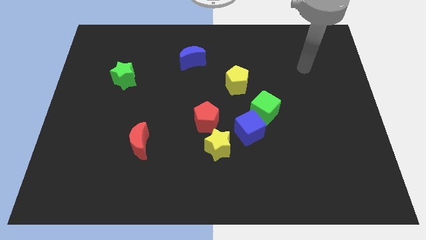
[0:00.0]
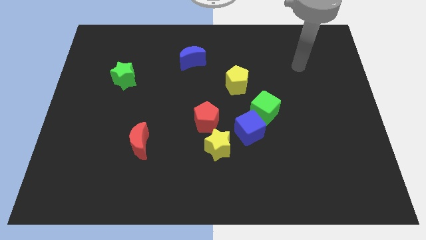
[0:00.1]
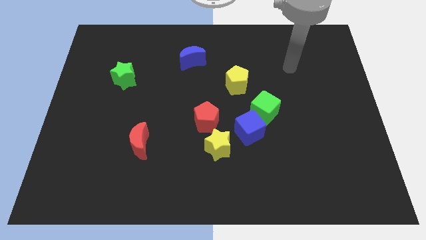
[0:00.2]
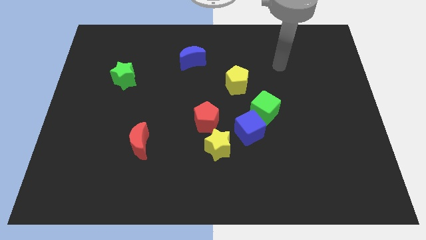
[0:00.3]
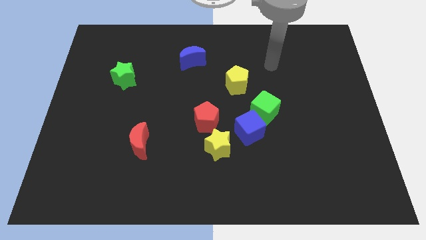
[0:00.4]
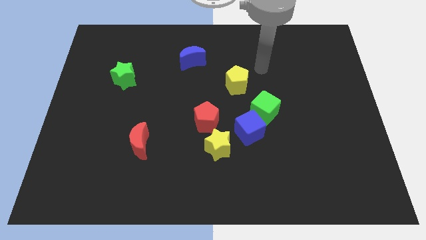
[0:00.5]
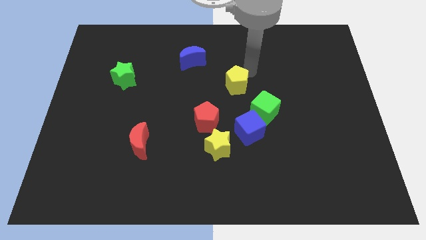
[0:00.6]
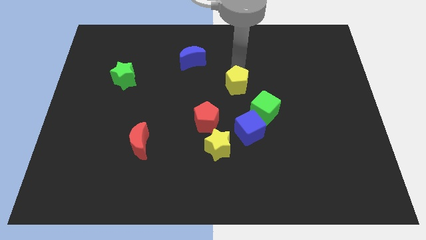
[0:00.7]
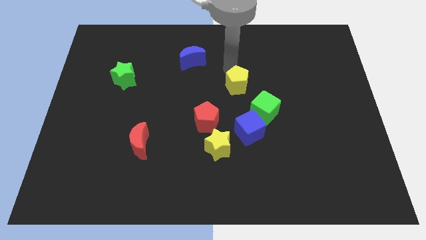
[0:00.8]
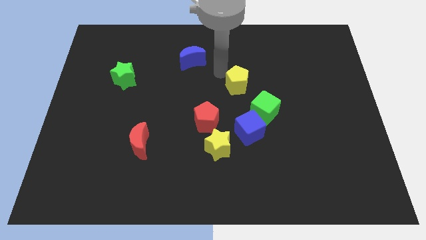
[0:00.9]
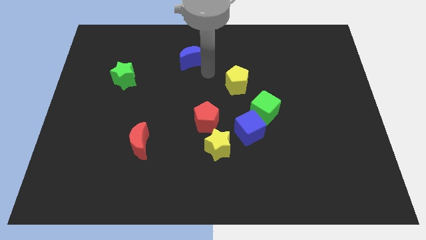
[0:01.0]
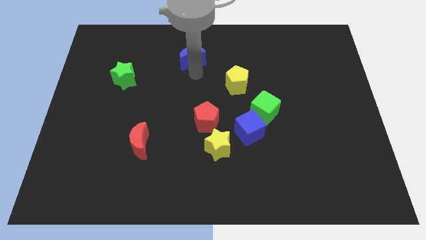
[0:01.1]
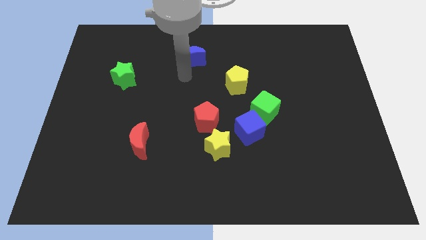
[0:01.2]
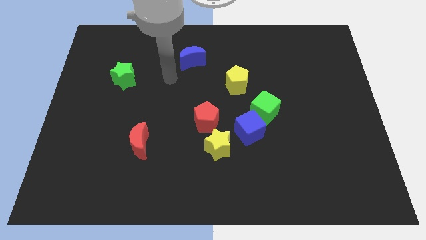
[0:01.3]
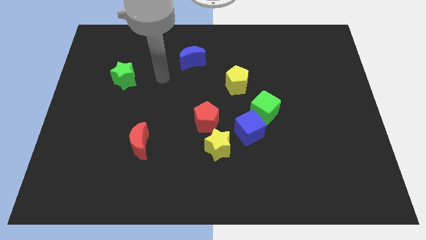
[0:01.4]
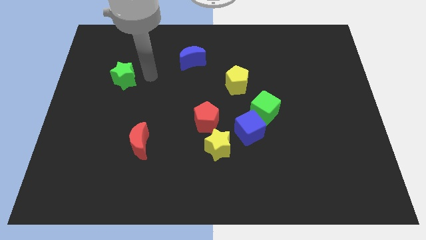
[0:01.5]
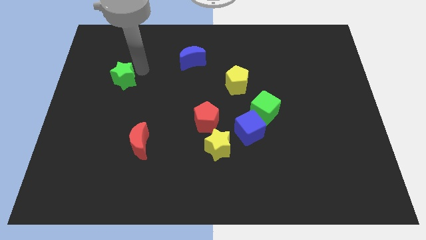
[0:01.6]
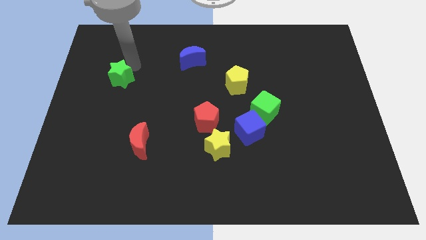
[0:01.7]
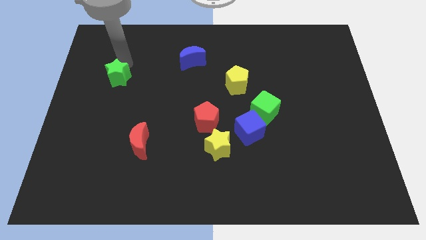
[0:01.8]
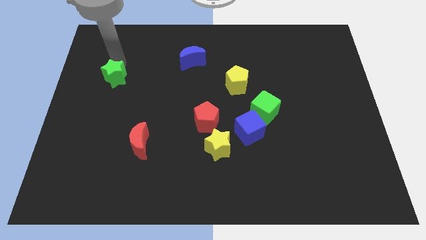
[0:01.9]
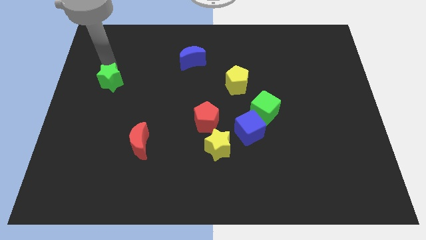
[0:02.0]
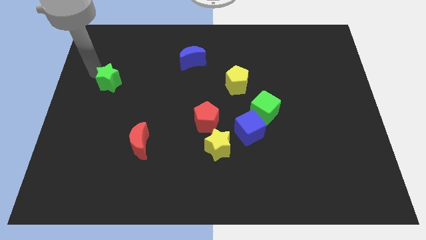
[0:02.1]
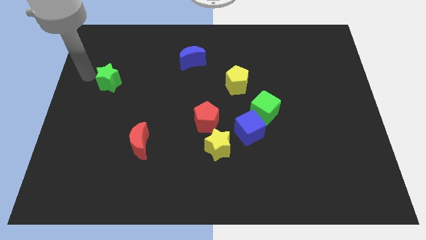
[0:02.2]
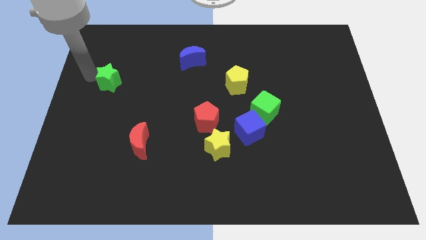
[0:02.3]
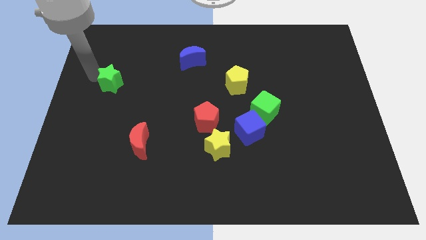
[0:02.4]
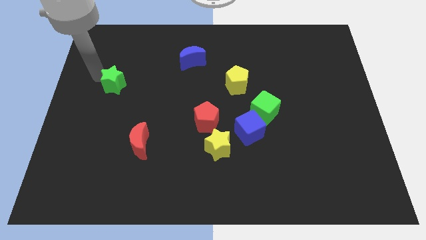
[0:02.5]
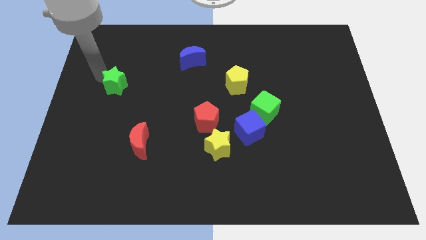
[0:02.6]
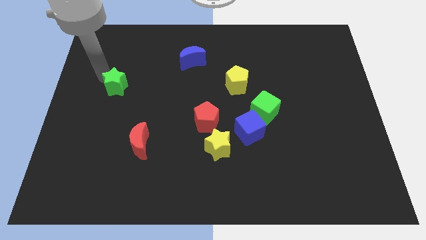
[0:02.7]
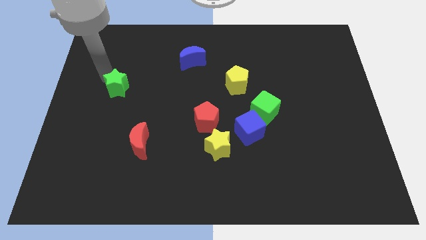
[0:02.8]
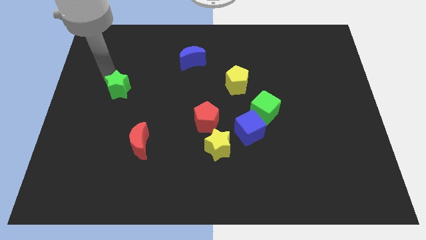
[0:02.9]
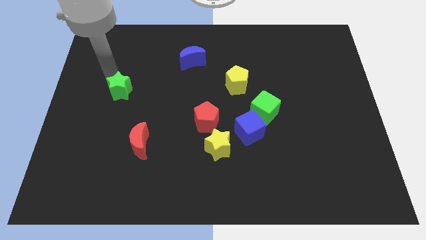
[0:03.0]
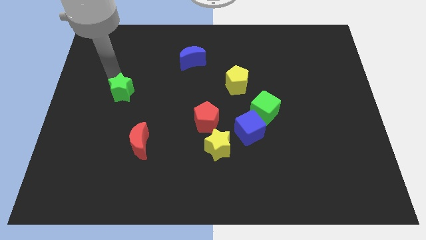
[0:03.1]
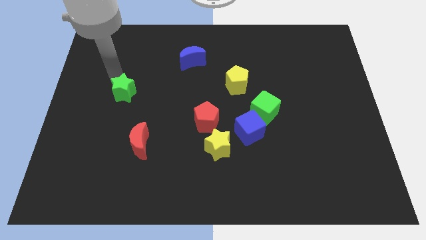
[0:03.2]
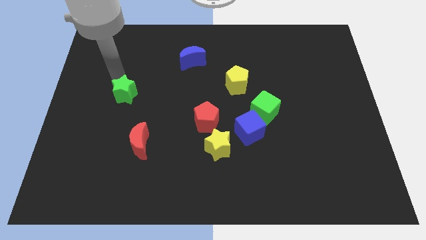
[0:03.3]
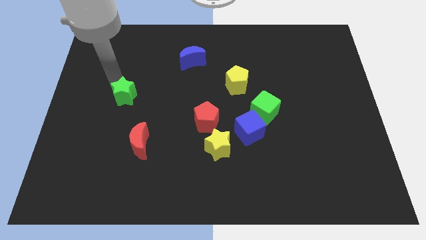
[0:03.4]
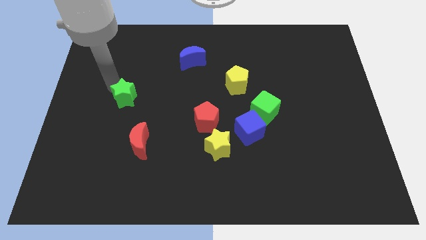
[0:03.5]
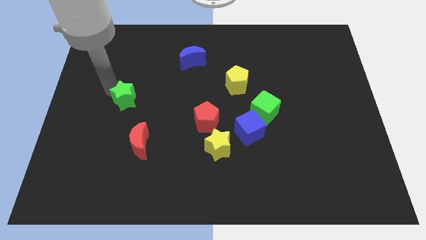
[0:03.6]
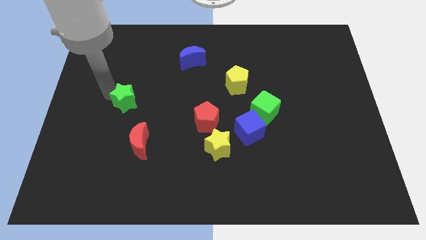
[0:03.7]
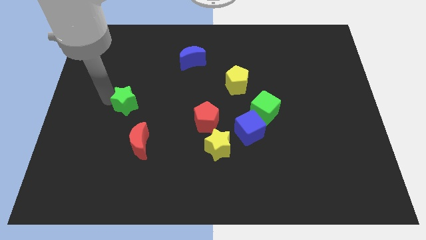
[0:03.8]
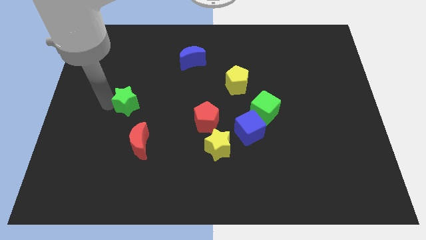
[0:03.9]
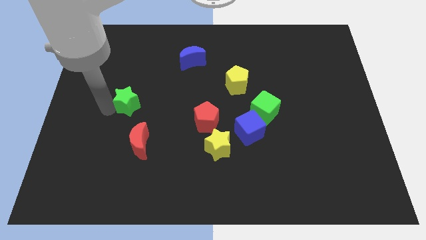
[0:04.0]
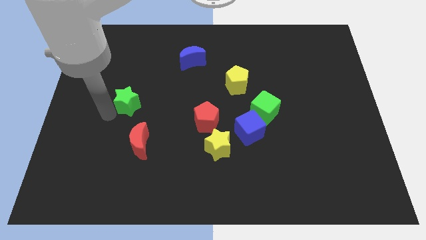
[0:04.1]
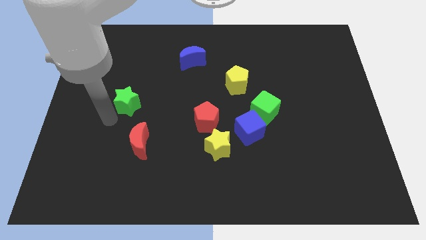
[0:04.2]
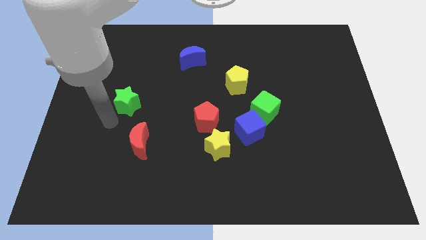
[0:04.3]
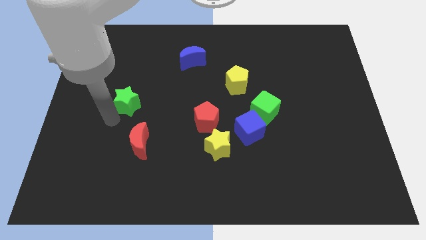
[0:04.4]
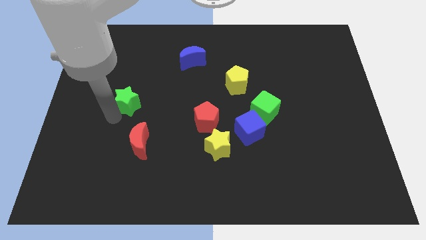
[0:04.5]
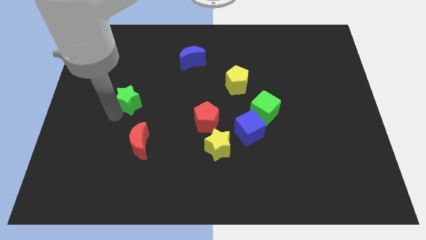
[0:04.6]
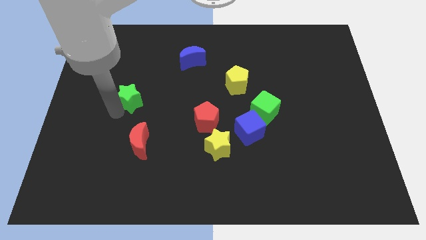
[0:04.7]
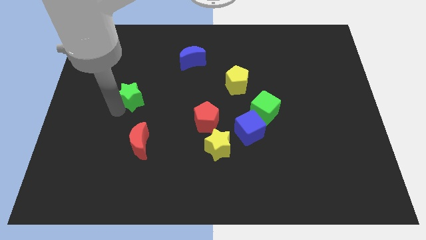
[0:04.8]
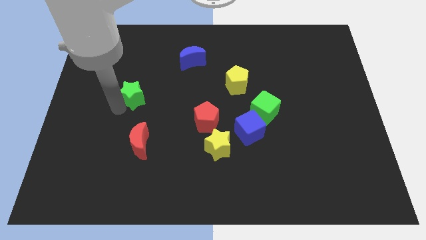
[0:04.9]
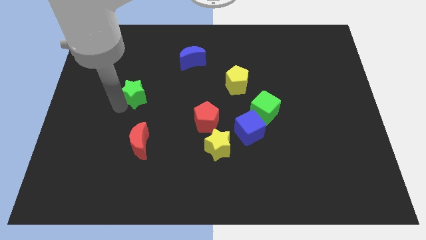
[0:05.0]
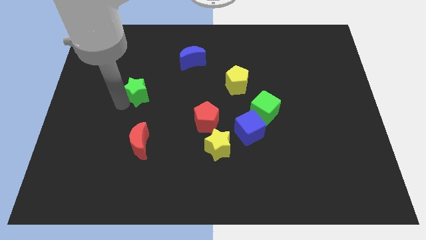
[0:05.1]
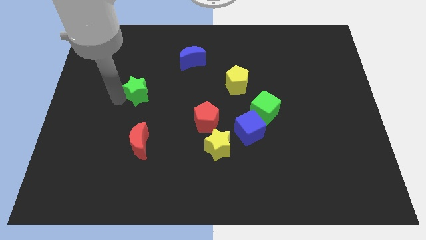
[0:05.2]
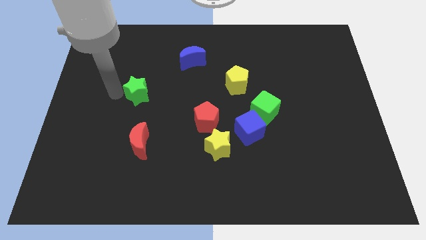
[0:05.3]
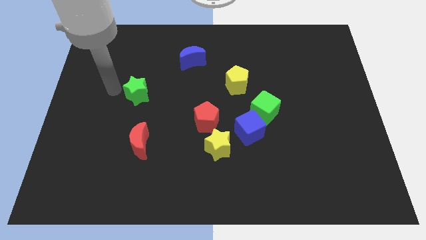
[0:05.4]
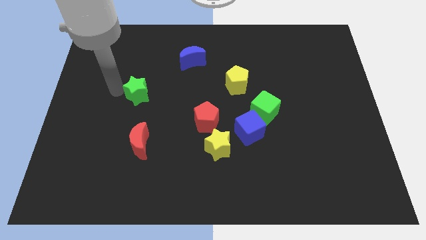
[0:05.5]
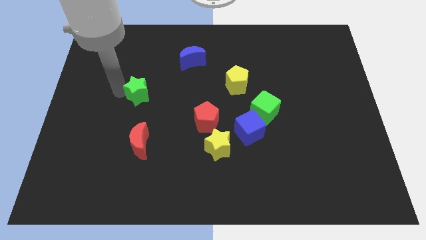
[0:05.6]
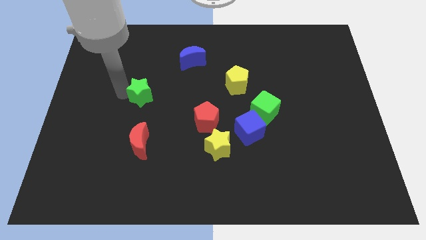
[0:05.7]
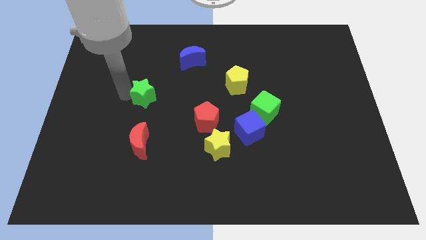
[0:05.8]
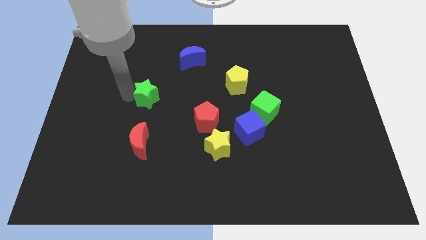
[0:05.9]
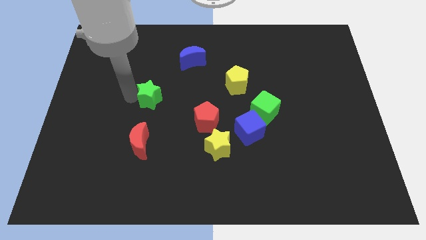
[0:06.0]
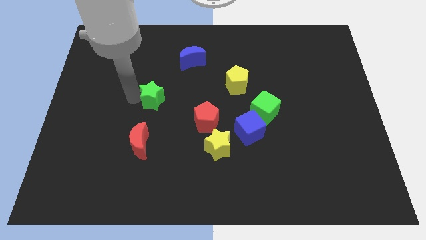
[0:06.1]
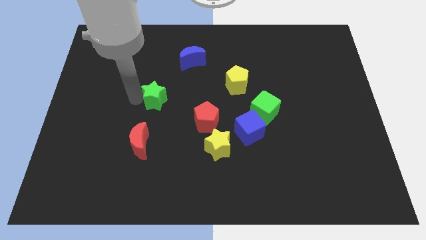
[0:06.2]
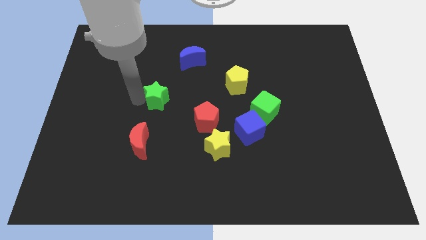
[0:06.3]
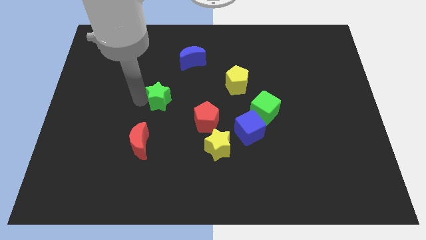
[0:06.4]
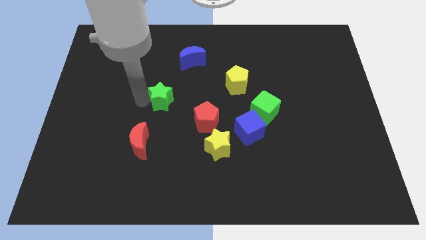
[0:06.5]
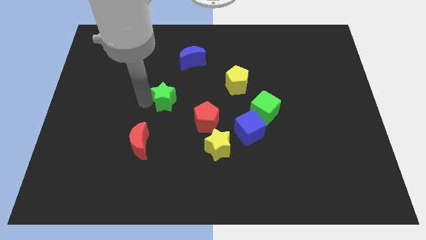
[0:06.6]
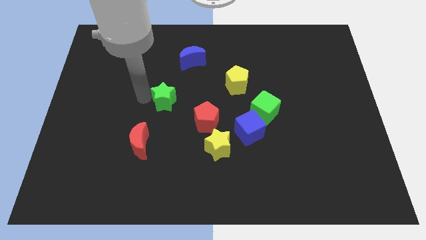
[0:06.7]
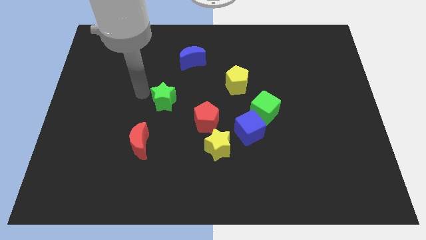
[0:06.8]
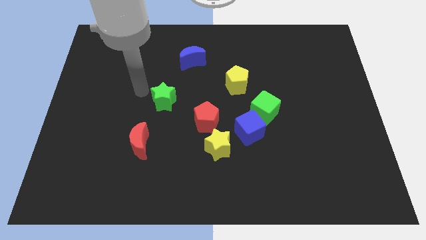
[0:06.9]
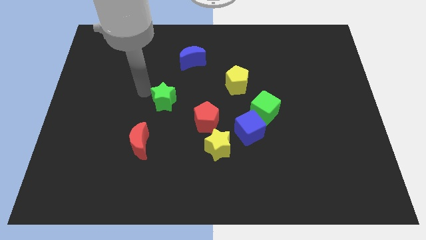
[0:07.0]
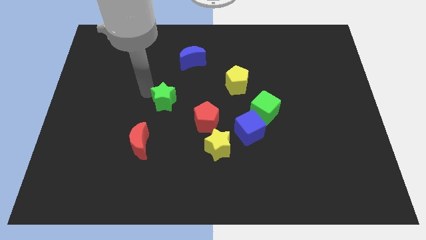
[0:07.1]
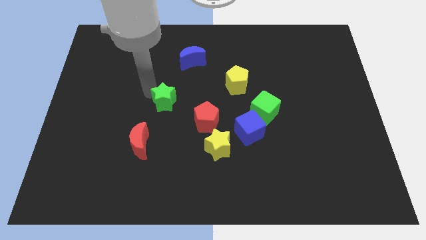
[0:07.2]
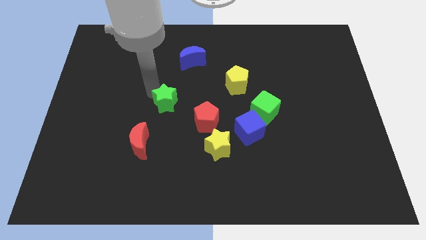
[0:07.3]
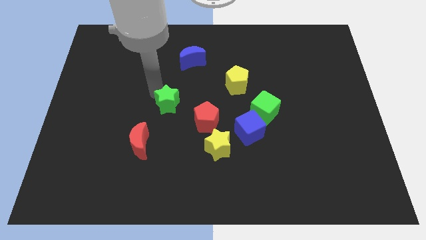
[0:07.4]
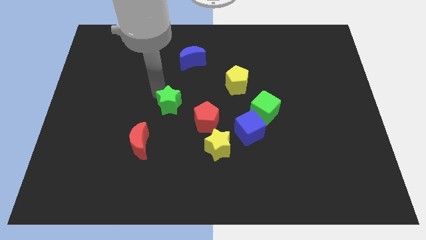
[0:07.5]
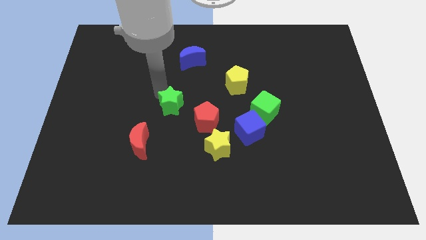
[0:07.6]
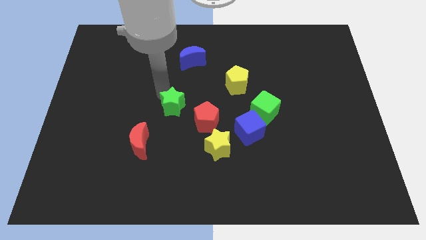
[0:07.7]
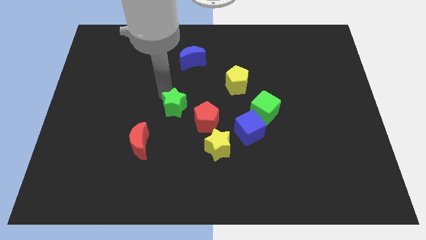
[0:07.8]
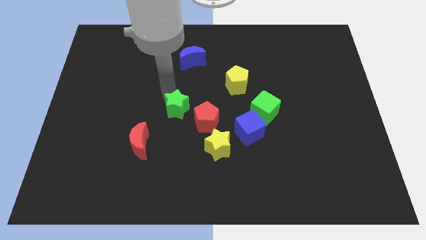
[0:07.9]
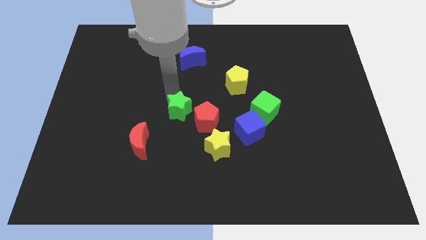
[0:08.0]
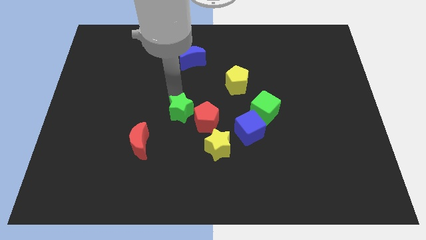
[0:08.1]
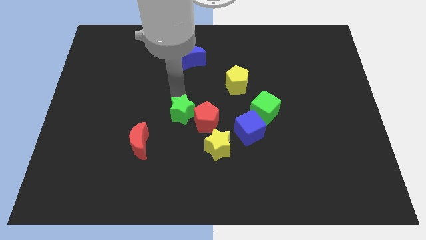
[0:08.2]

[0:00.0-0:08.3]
move the green star next to the red pentagon
